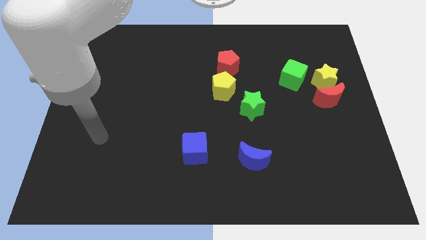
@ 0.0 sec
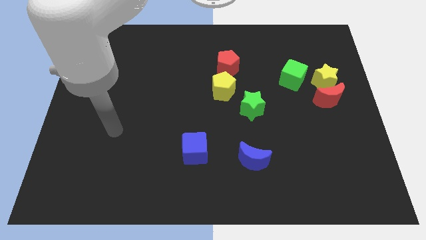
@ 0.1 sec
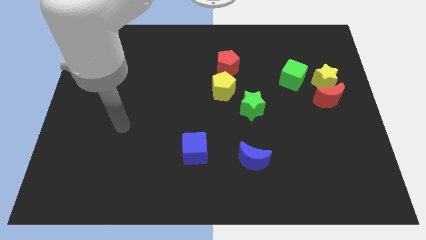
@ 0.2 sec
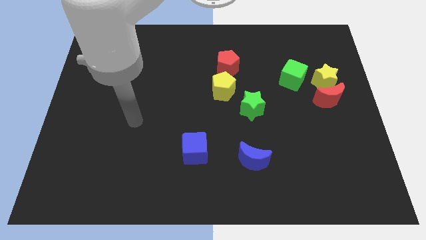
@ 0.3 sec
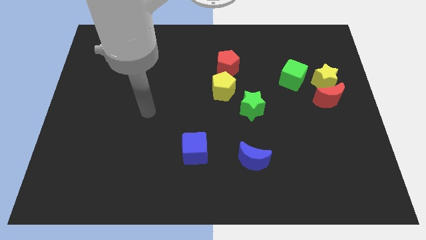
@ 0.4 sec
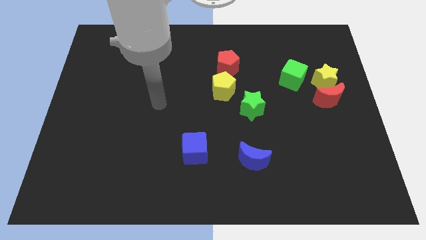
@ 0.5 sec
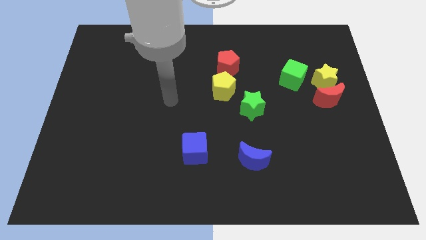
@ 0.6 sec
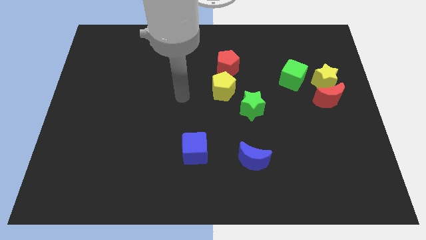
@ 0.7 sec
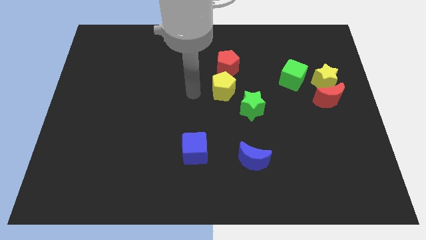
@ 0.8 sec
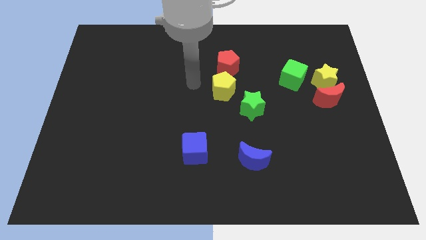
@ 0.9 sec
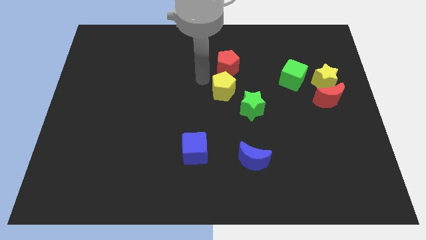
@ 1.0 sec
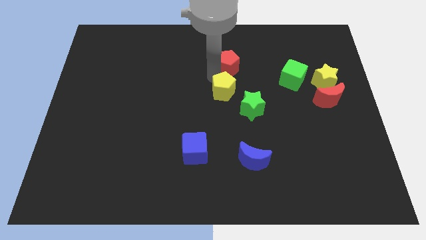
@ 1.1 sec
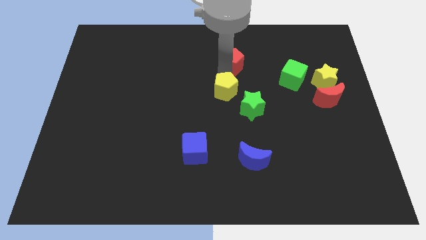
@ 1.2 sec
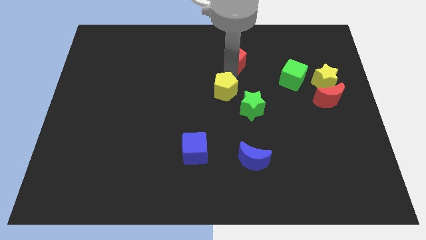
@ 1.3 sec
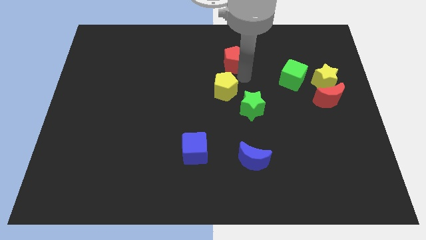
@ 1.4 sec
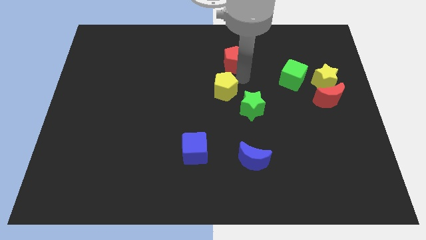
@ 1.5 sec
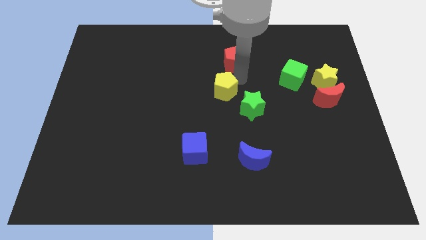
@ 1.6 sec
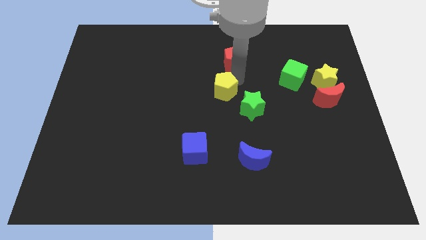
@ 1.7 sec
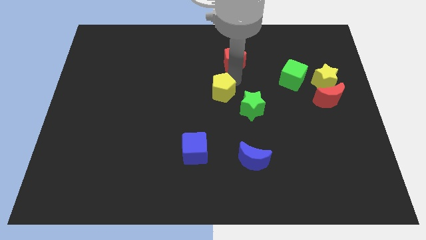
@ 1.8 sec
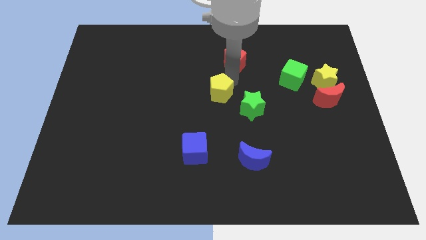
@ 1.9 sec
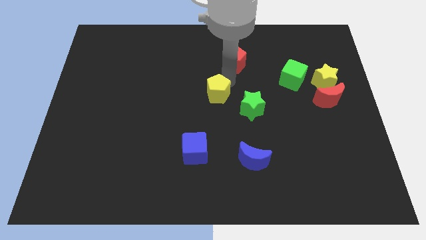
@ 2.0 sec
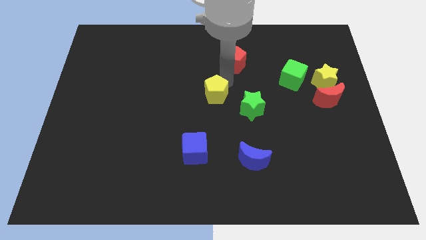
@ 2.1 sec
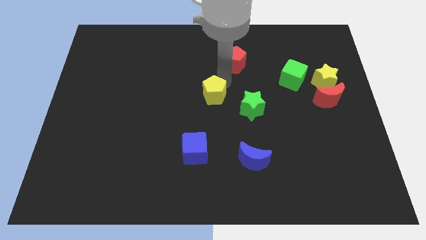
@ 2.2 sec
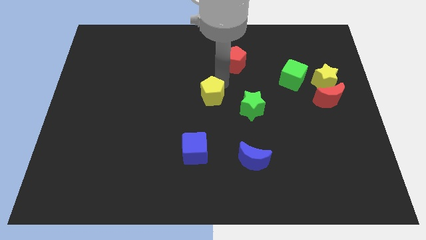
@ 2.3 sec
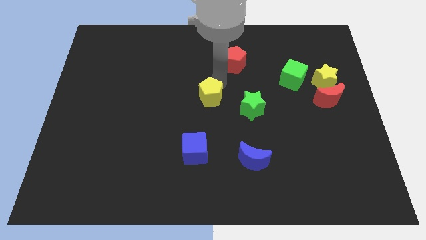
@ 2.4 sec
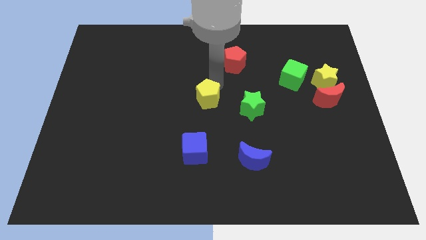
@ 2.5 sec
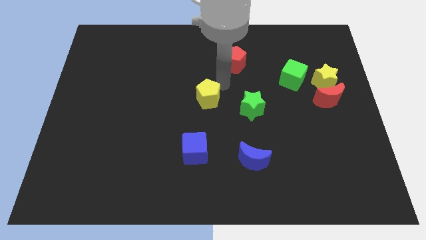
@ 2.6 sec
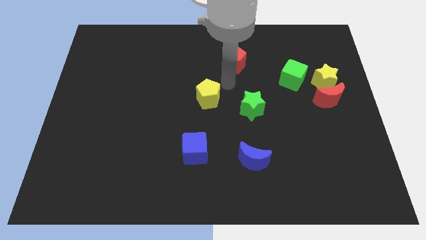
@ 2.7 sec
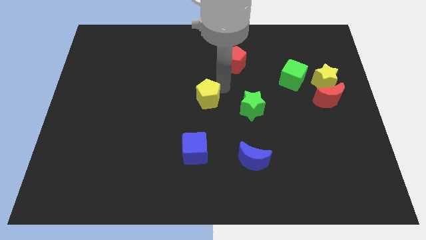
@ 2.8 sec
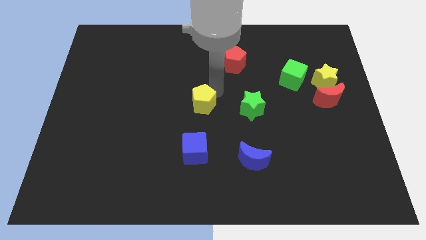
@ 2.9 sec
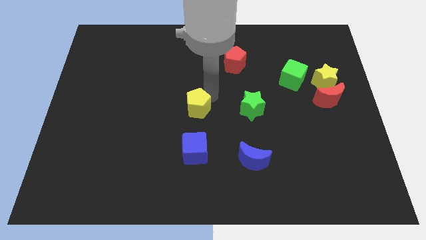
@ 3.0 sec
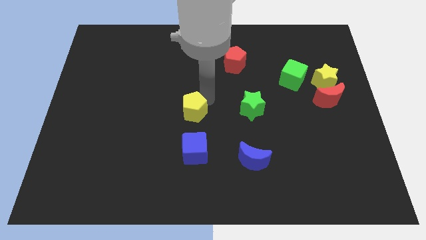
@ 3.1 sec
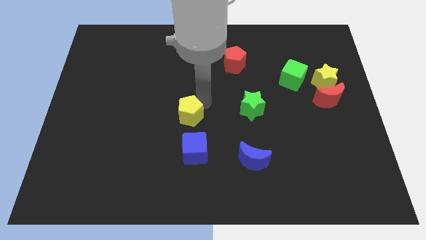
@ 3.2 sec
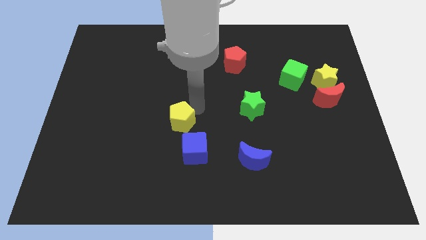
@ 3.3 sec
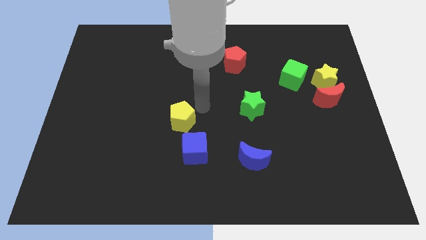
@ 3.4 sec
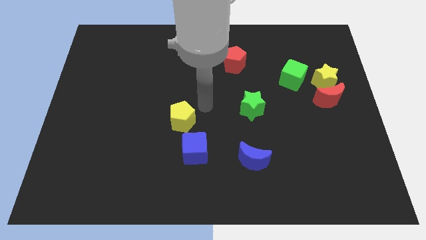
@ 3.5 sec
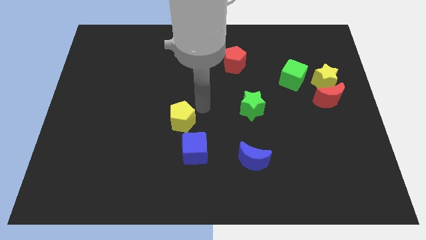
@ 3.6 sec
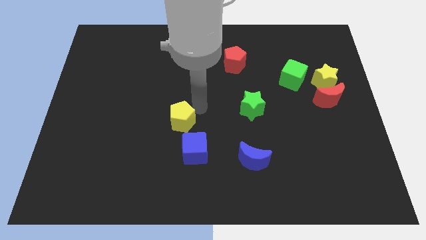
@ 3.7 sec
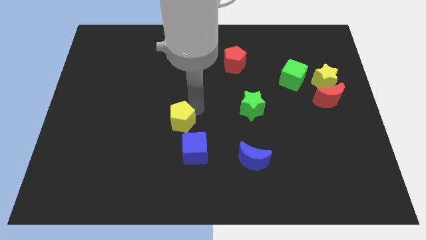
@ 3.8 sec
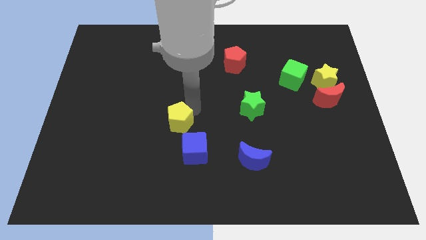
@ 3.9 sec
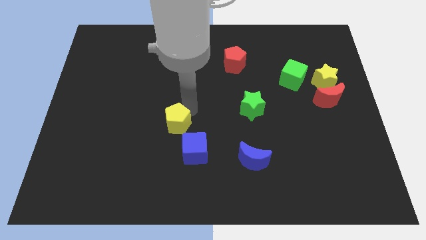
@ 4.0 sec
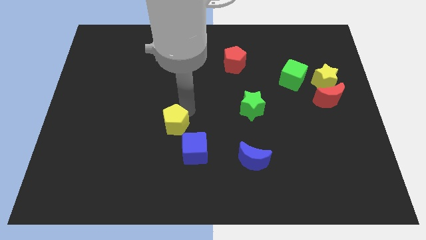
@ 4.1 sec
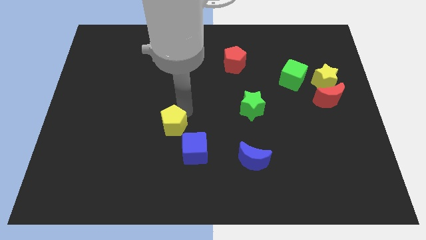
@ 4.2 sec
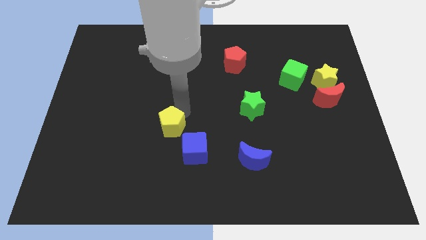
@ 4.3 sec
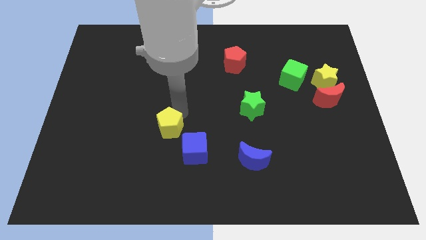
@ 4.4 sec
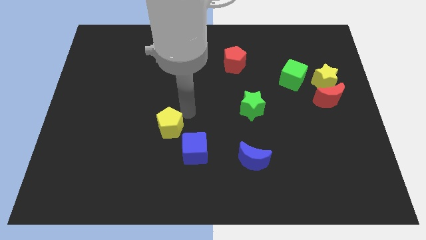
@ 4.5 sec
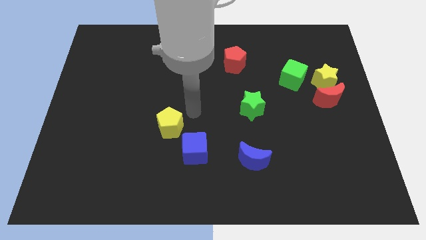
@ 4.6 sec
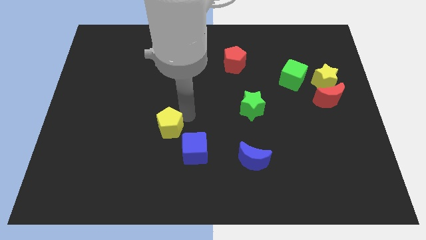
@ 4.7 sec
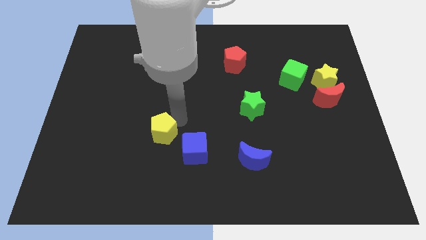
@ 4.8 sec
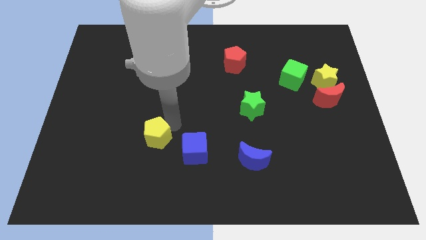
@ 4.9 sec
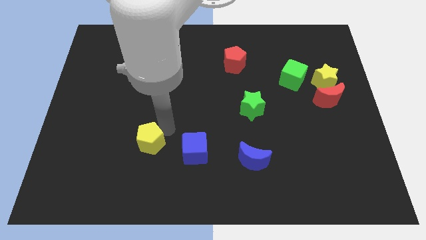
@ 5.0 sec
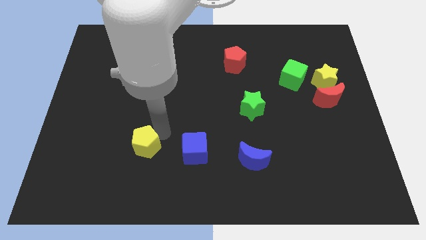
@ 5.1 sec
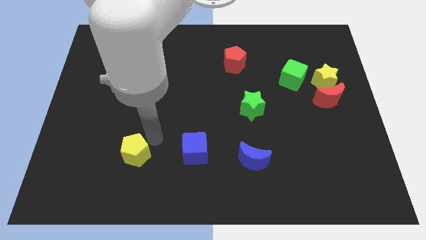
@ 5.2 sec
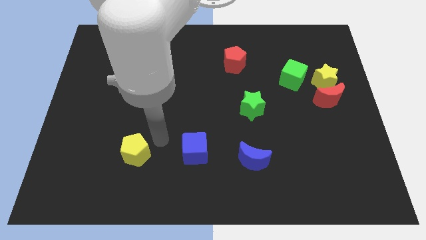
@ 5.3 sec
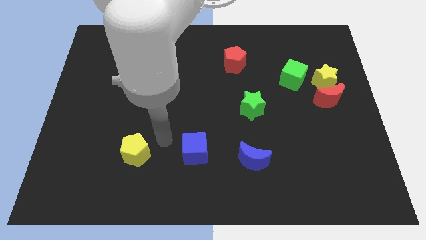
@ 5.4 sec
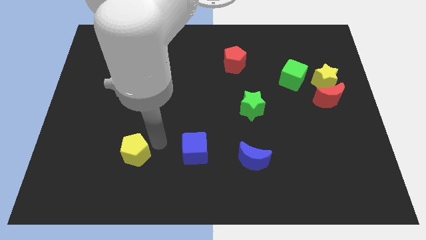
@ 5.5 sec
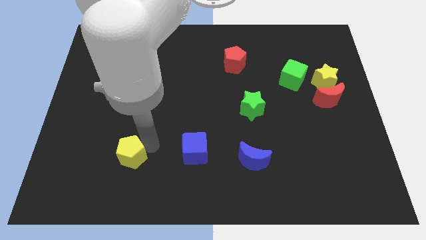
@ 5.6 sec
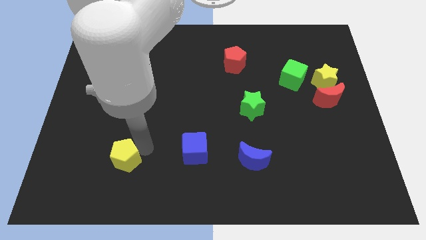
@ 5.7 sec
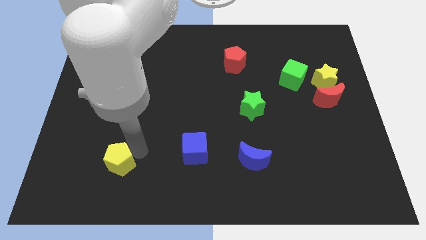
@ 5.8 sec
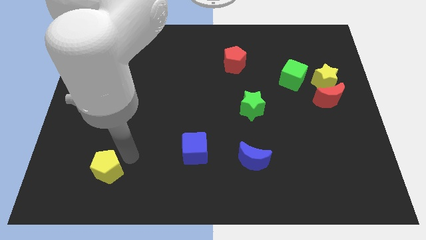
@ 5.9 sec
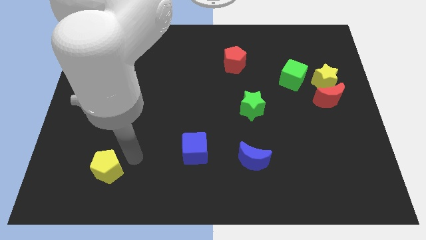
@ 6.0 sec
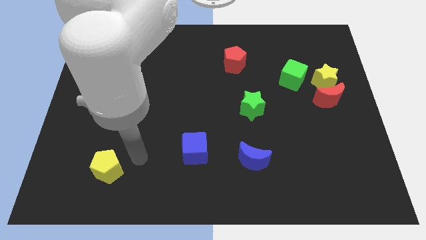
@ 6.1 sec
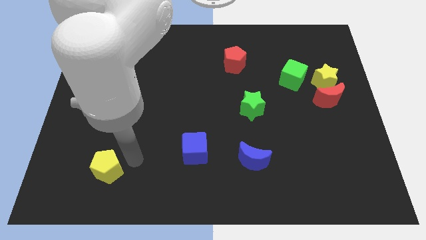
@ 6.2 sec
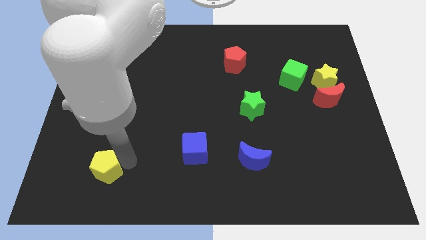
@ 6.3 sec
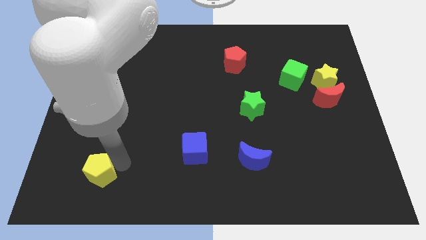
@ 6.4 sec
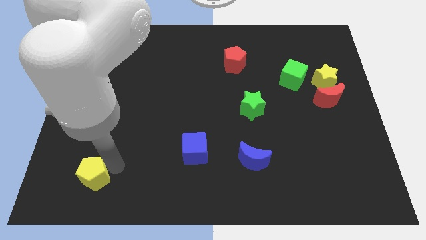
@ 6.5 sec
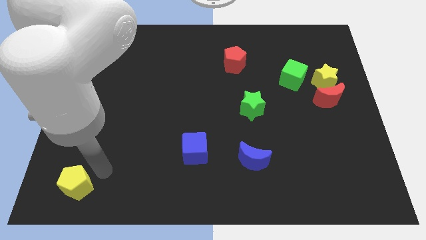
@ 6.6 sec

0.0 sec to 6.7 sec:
put the yellow pentagon to the bottom left corner
